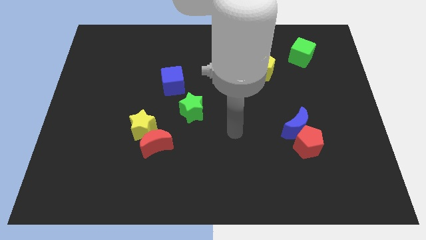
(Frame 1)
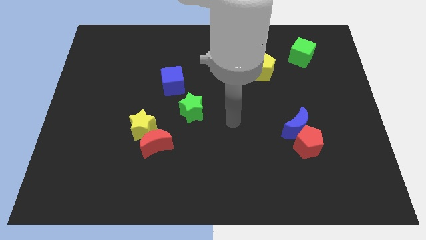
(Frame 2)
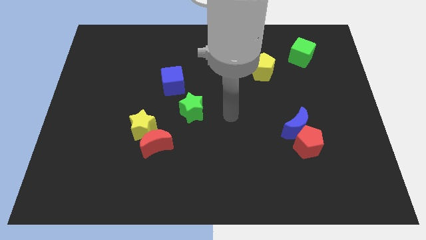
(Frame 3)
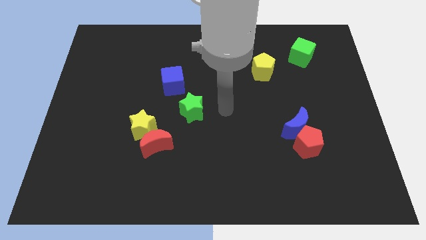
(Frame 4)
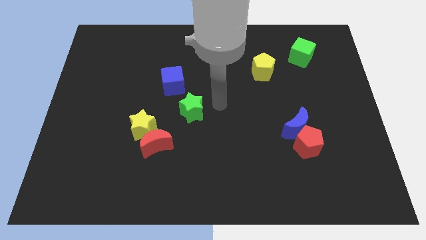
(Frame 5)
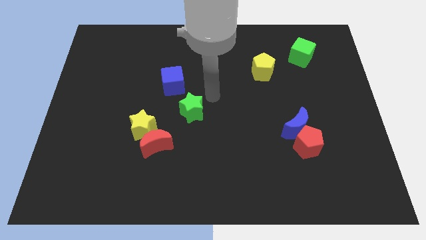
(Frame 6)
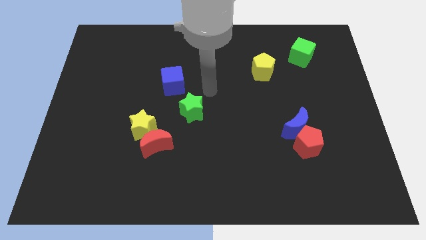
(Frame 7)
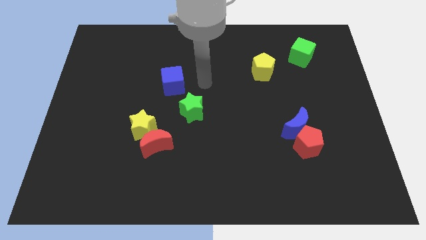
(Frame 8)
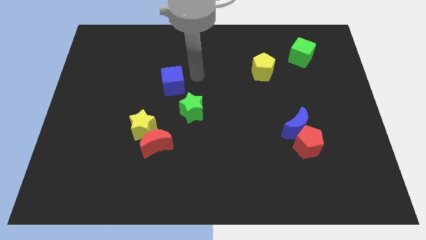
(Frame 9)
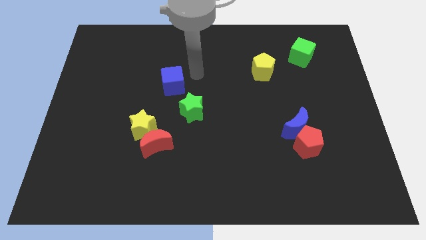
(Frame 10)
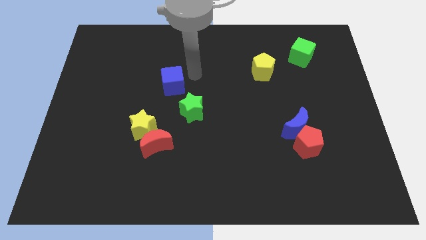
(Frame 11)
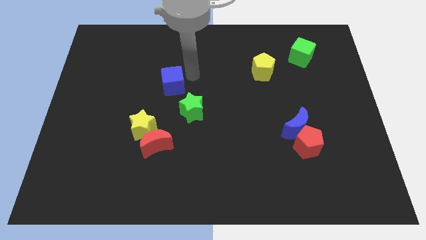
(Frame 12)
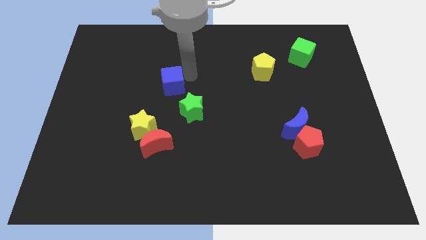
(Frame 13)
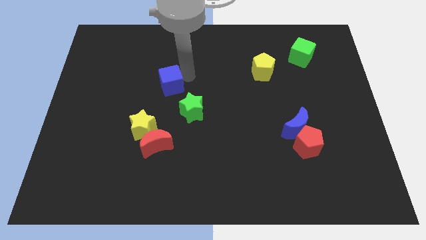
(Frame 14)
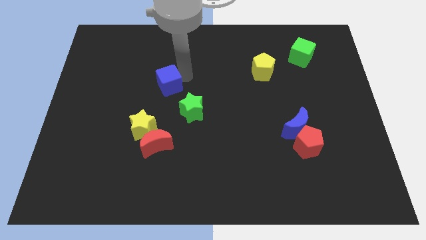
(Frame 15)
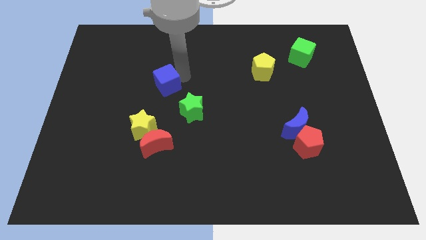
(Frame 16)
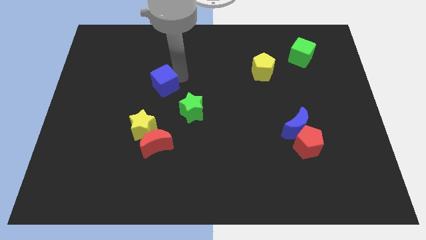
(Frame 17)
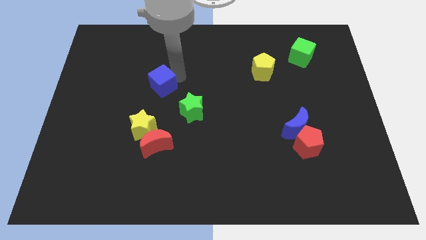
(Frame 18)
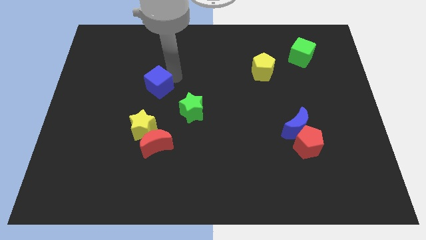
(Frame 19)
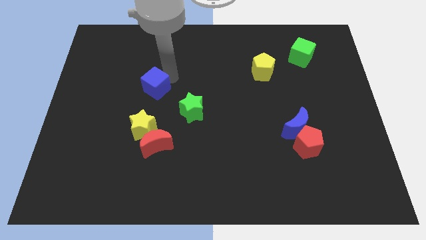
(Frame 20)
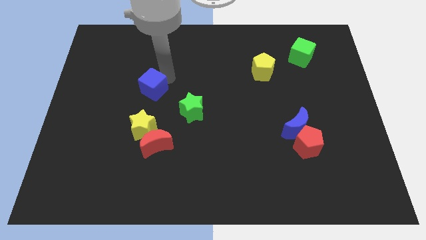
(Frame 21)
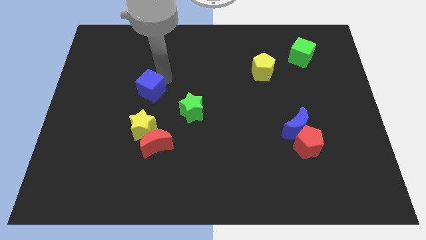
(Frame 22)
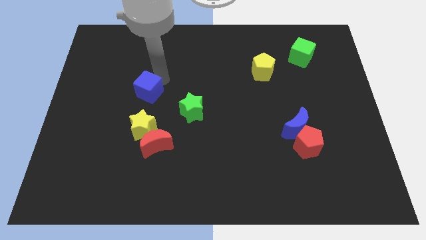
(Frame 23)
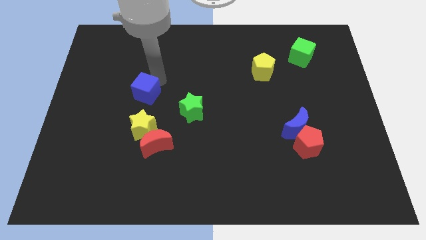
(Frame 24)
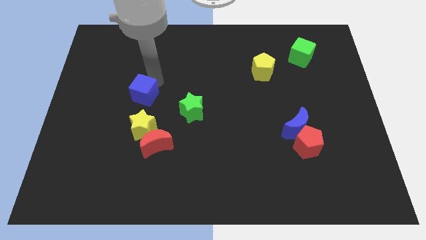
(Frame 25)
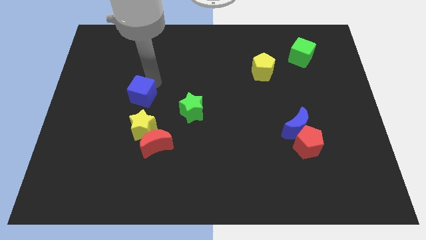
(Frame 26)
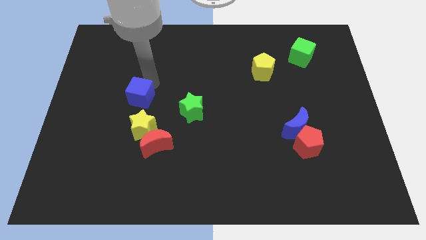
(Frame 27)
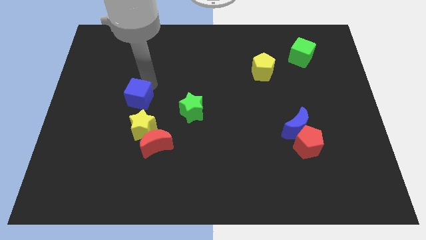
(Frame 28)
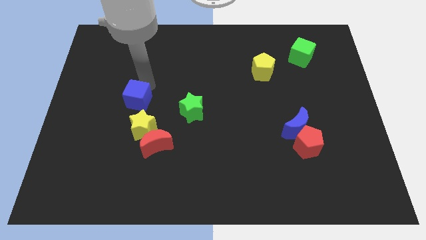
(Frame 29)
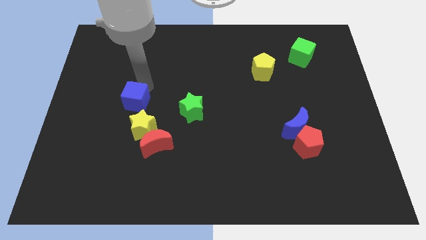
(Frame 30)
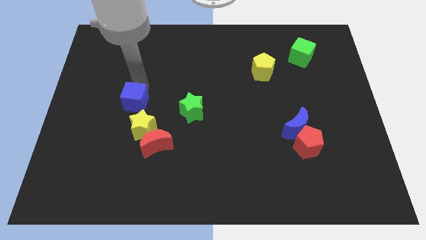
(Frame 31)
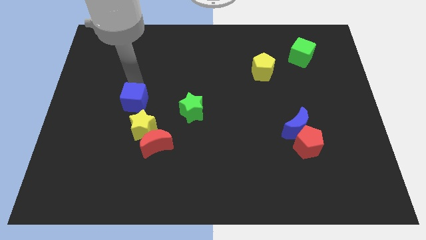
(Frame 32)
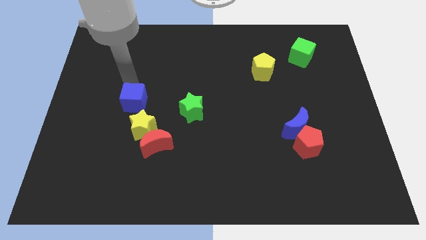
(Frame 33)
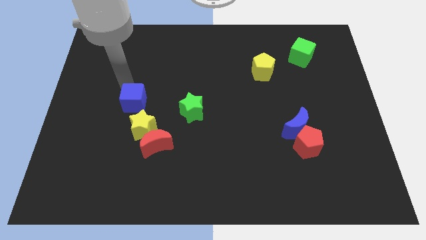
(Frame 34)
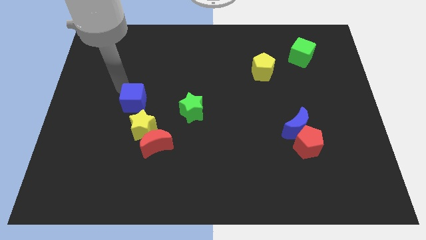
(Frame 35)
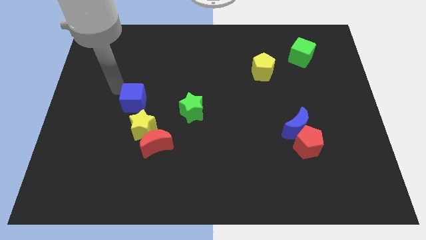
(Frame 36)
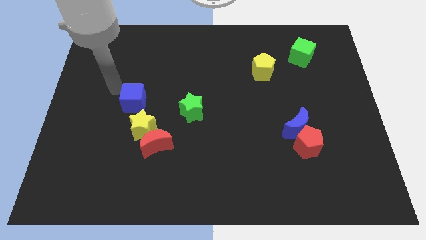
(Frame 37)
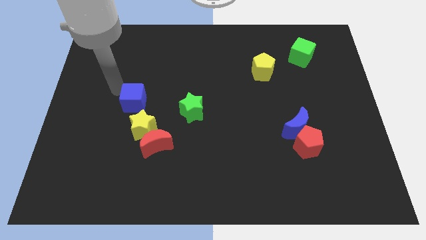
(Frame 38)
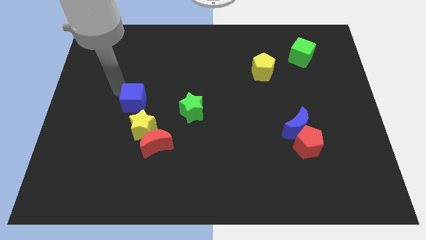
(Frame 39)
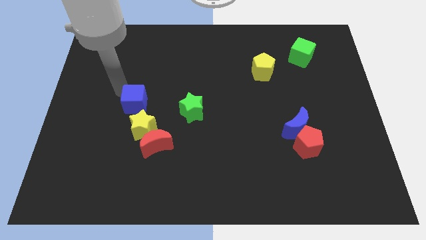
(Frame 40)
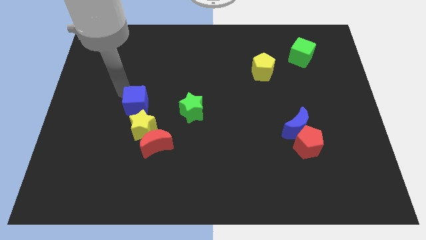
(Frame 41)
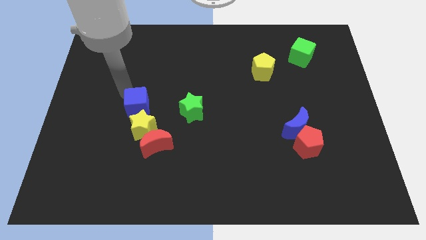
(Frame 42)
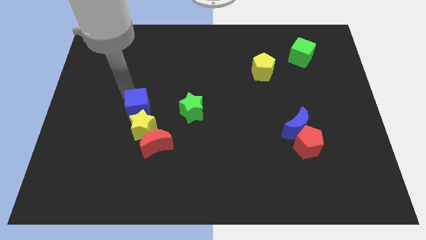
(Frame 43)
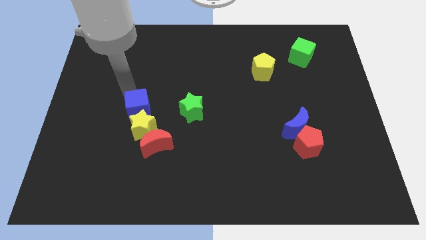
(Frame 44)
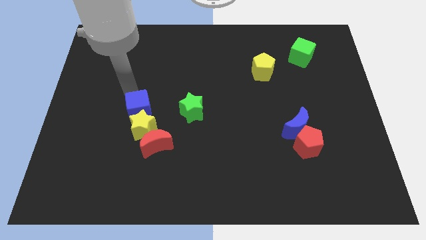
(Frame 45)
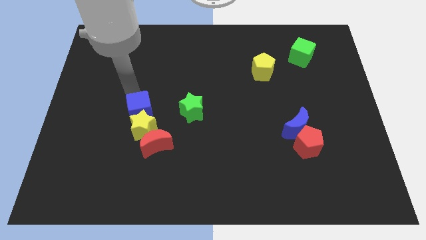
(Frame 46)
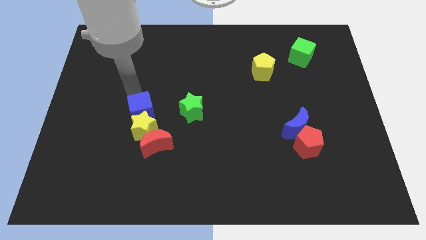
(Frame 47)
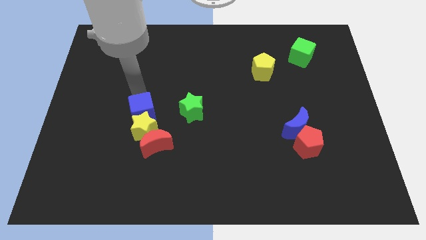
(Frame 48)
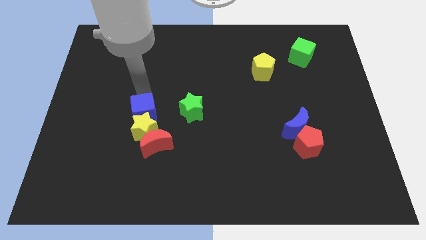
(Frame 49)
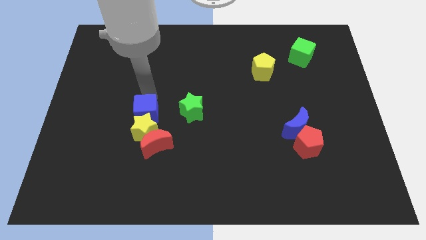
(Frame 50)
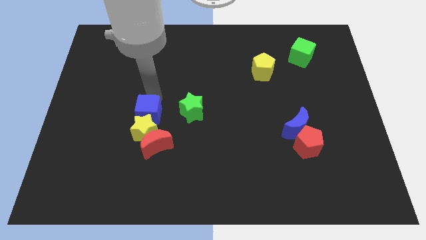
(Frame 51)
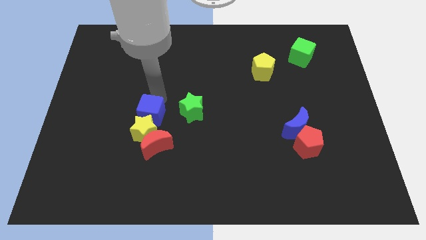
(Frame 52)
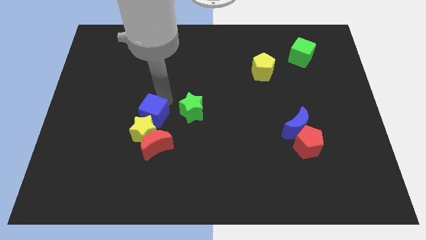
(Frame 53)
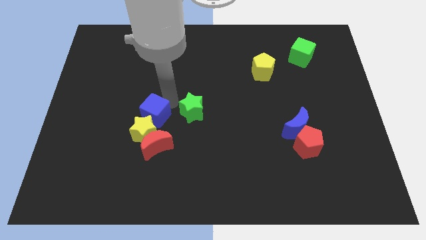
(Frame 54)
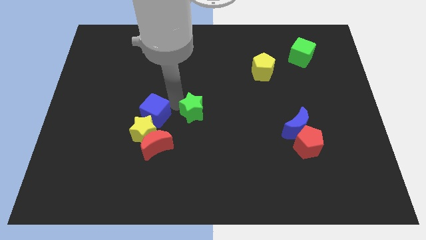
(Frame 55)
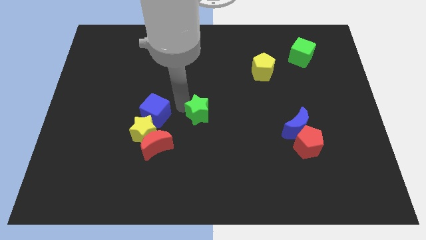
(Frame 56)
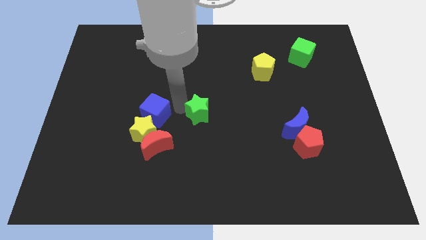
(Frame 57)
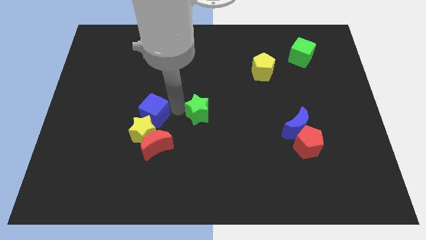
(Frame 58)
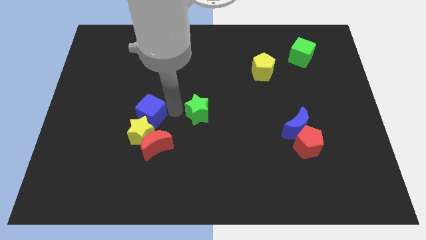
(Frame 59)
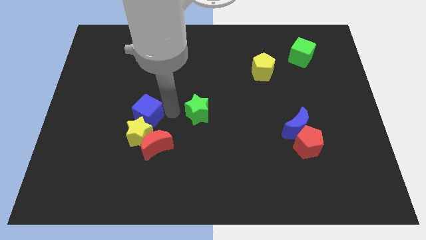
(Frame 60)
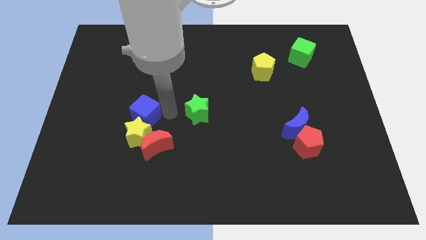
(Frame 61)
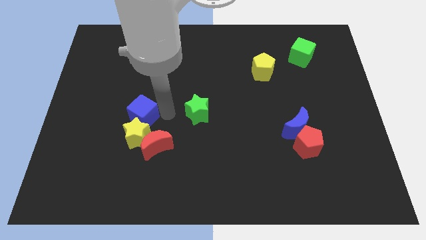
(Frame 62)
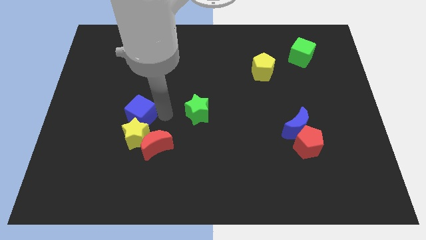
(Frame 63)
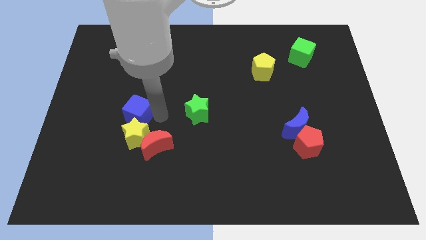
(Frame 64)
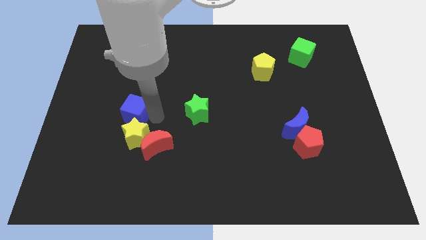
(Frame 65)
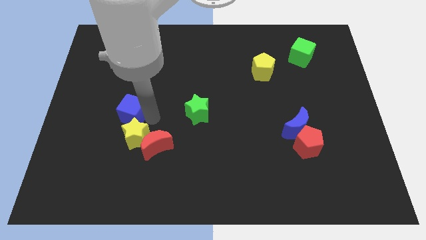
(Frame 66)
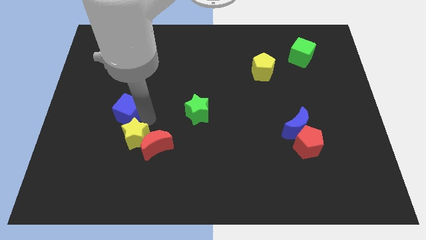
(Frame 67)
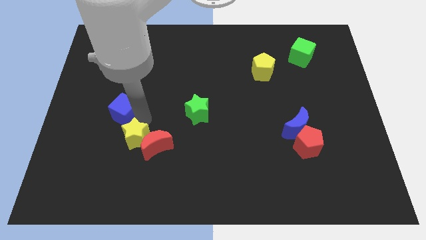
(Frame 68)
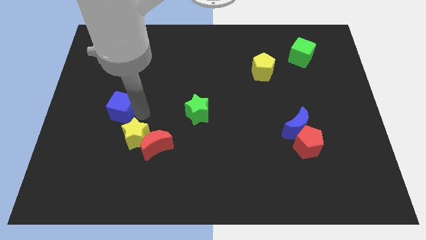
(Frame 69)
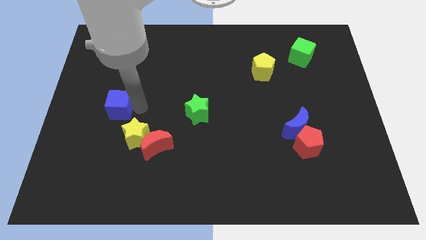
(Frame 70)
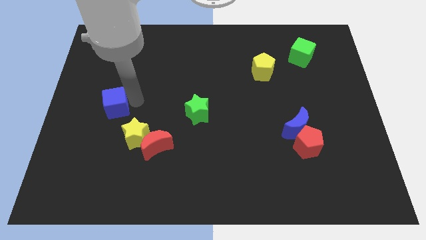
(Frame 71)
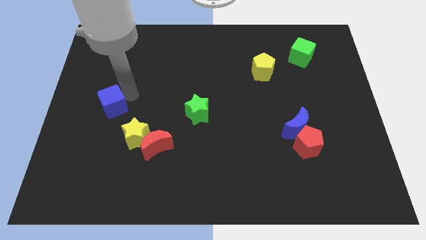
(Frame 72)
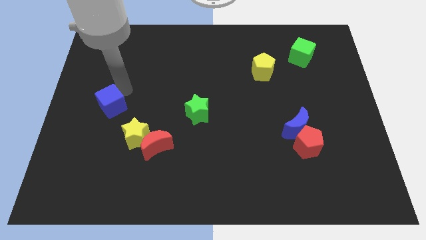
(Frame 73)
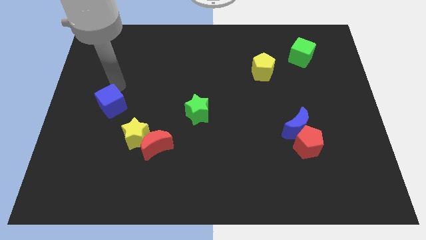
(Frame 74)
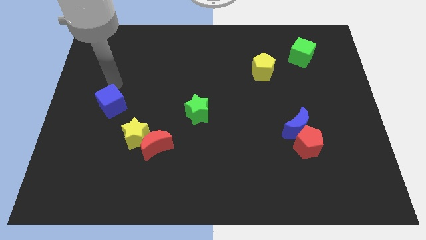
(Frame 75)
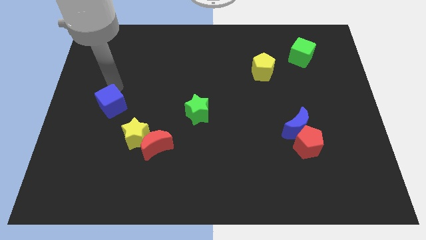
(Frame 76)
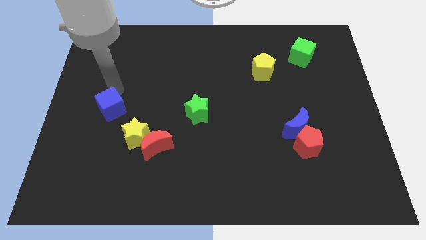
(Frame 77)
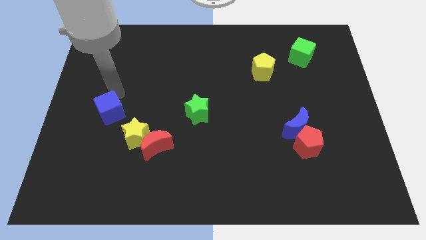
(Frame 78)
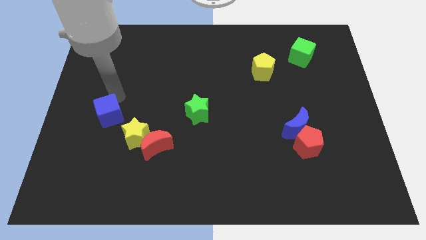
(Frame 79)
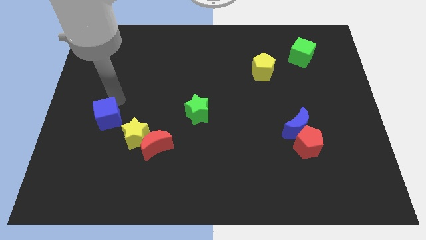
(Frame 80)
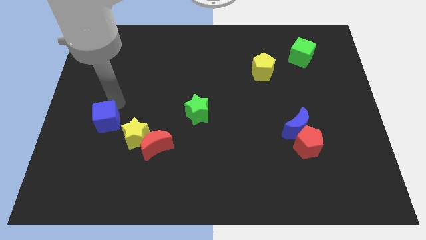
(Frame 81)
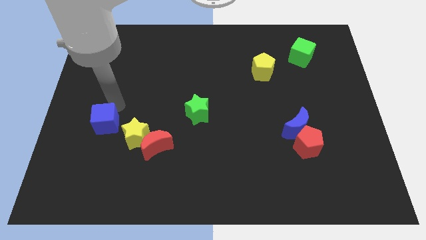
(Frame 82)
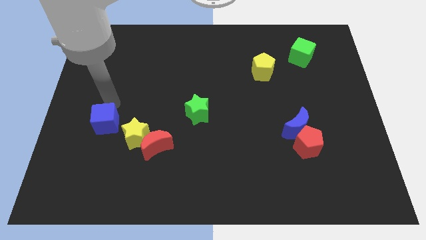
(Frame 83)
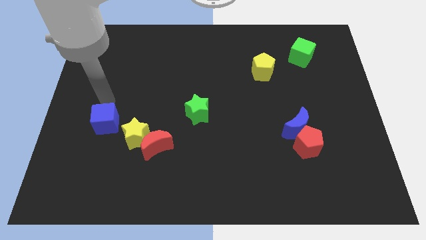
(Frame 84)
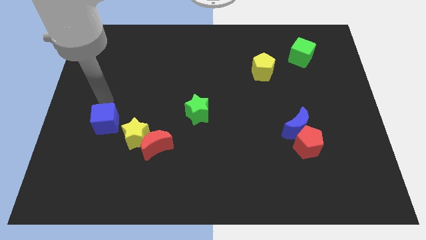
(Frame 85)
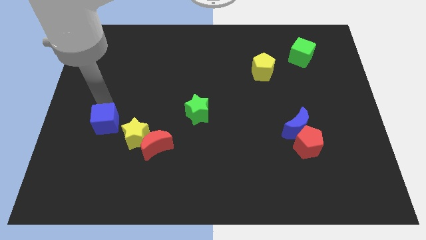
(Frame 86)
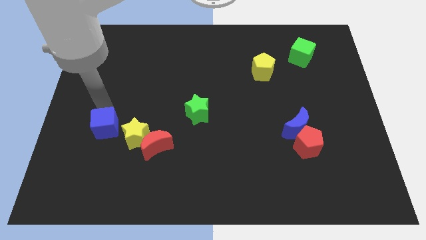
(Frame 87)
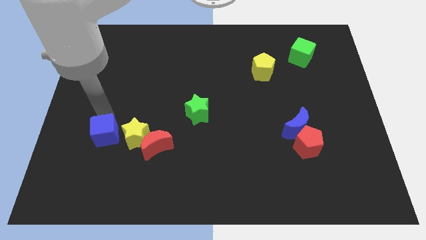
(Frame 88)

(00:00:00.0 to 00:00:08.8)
move the blue cube to the left of the red moon
